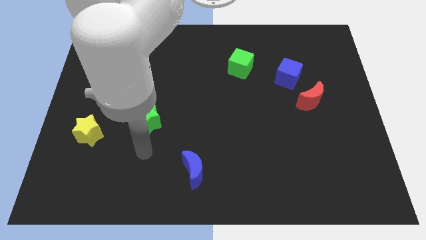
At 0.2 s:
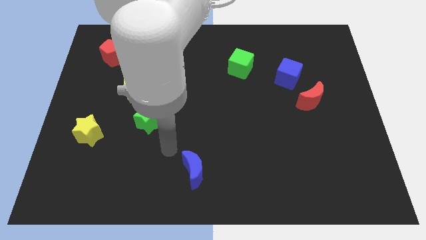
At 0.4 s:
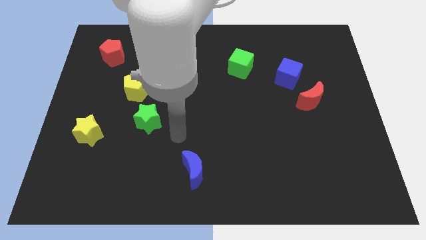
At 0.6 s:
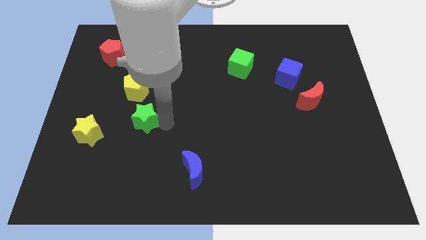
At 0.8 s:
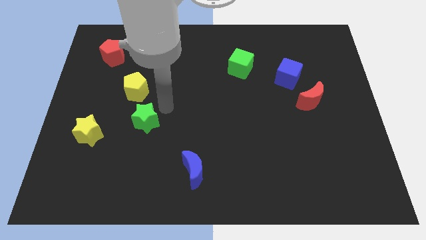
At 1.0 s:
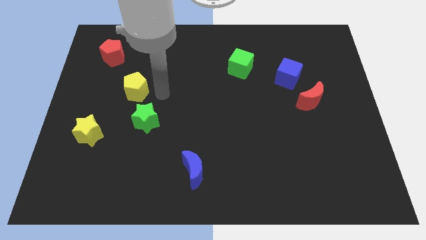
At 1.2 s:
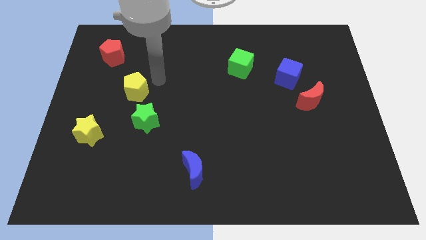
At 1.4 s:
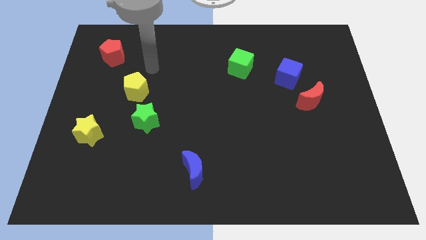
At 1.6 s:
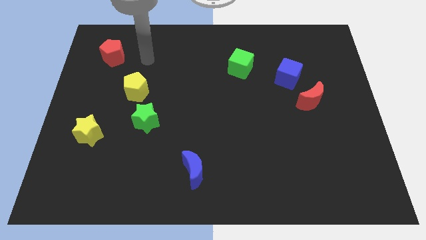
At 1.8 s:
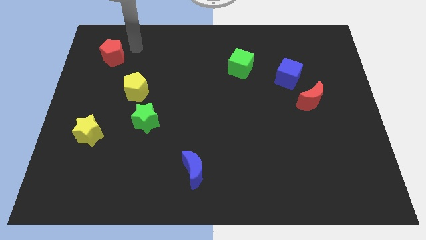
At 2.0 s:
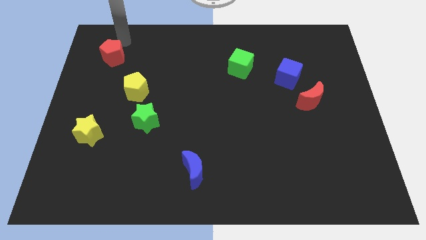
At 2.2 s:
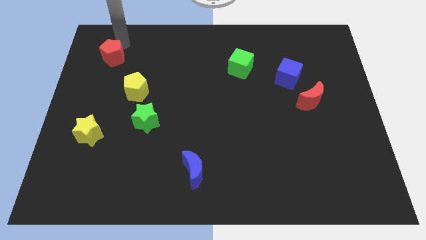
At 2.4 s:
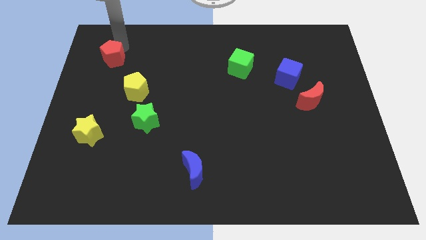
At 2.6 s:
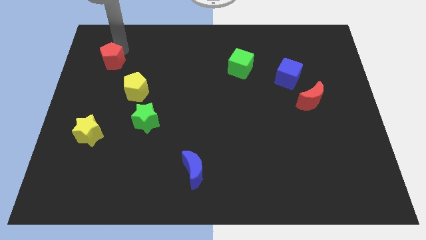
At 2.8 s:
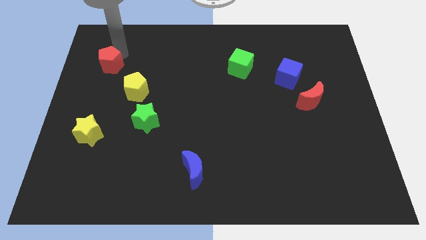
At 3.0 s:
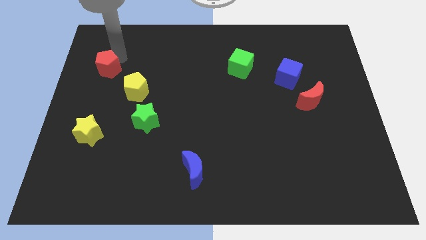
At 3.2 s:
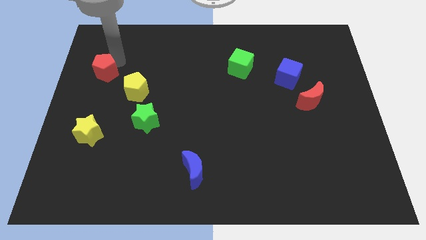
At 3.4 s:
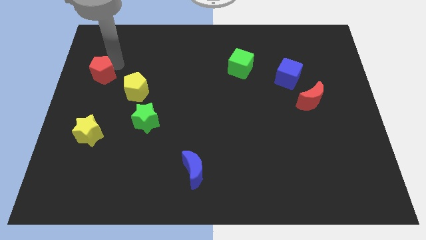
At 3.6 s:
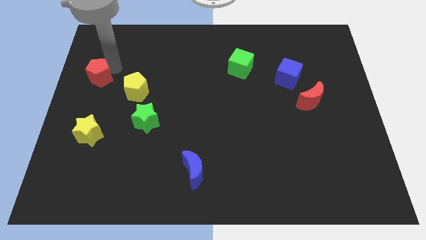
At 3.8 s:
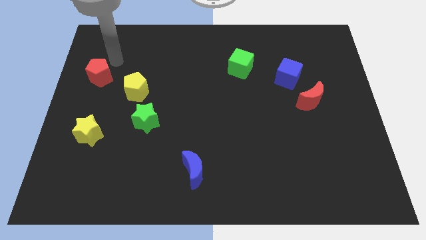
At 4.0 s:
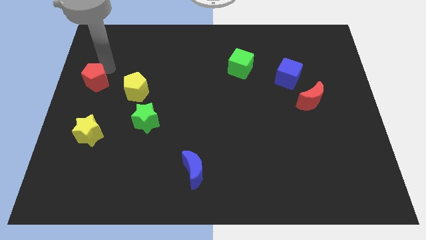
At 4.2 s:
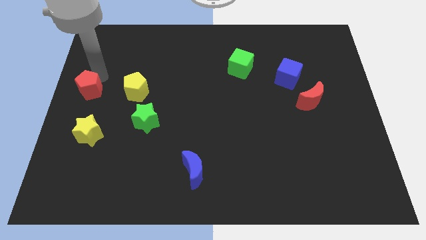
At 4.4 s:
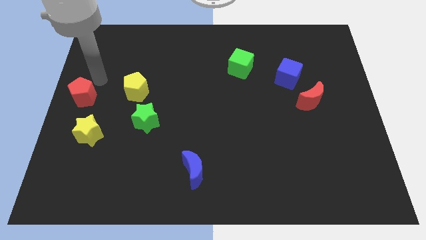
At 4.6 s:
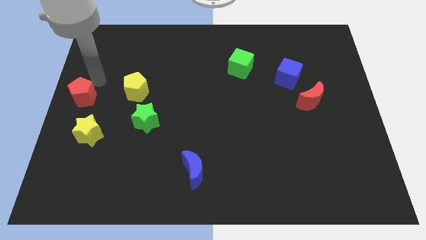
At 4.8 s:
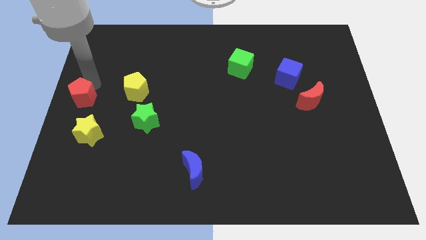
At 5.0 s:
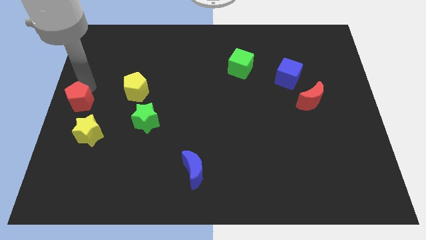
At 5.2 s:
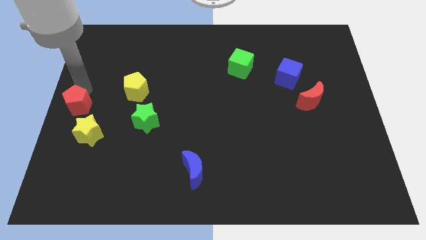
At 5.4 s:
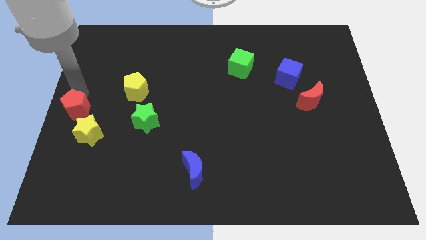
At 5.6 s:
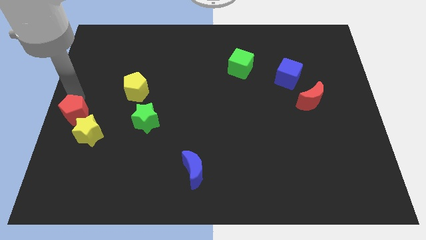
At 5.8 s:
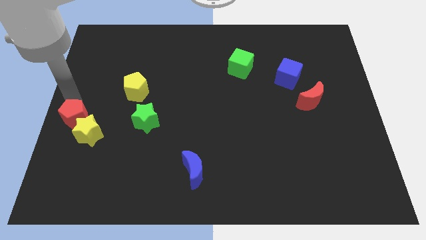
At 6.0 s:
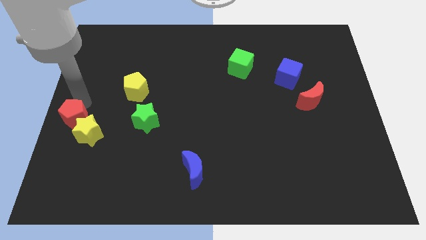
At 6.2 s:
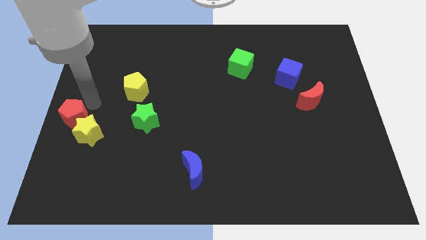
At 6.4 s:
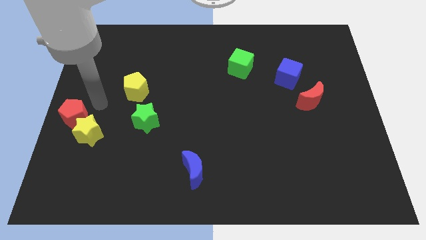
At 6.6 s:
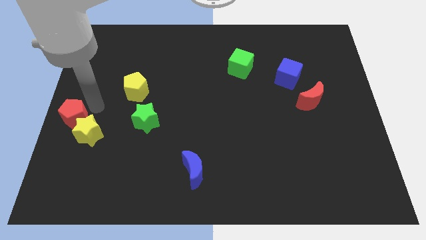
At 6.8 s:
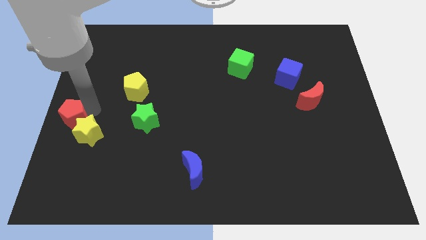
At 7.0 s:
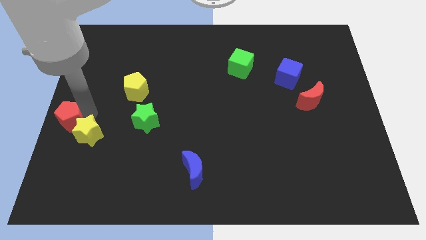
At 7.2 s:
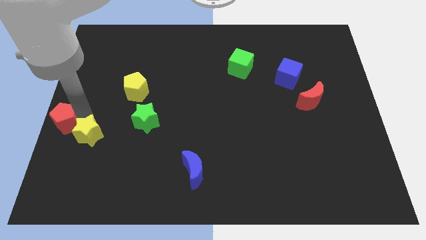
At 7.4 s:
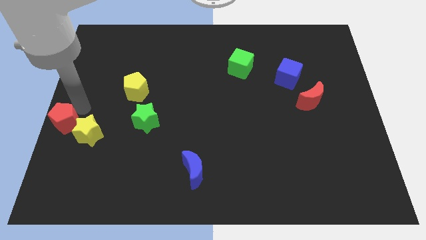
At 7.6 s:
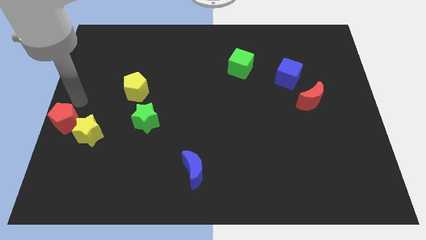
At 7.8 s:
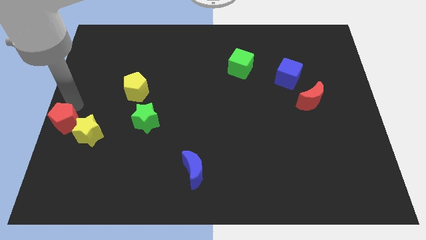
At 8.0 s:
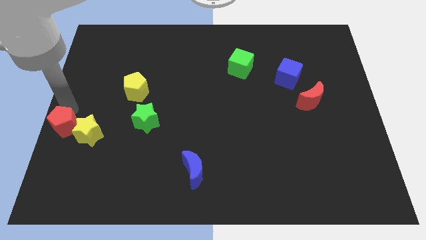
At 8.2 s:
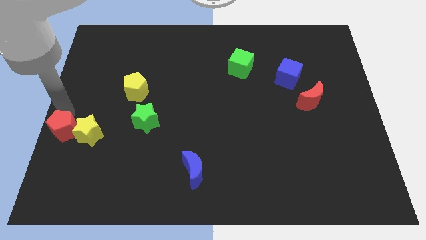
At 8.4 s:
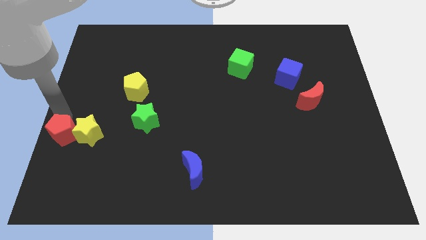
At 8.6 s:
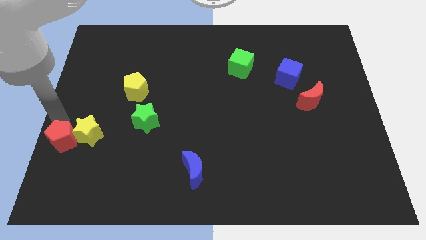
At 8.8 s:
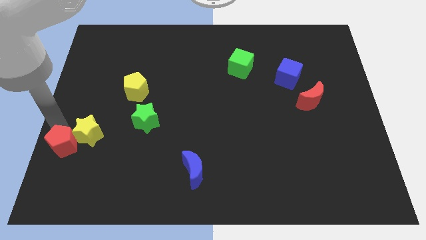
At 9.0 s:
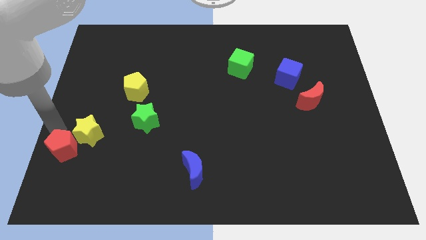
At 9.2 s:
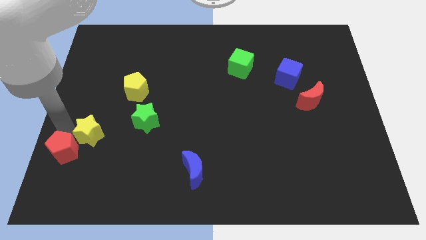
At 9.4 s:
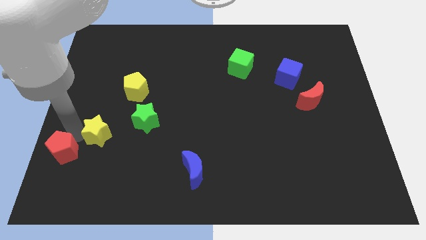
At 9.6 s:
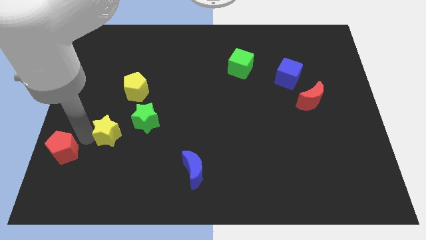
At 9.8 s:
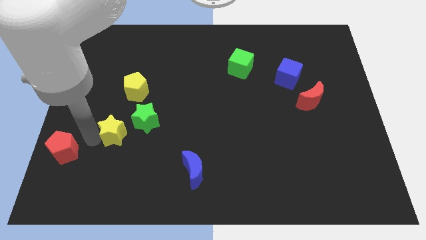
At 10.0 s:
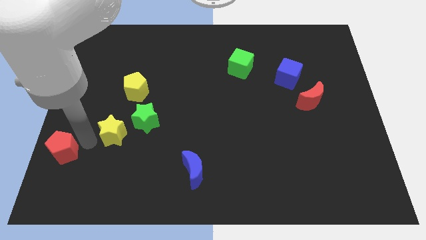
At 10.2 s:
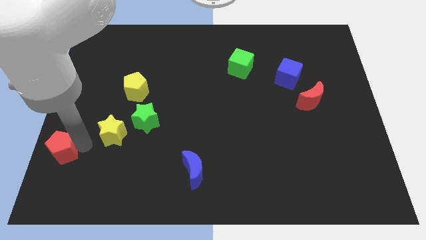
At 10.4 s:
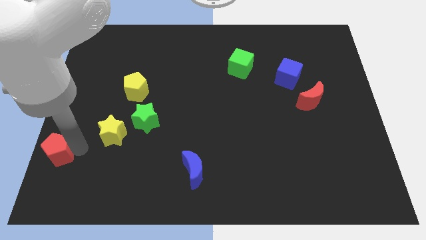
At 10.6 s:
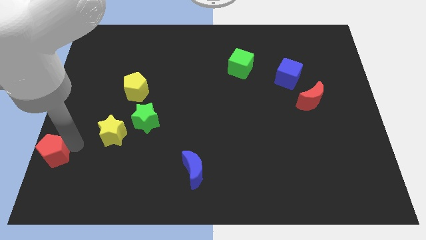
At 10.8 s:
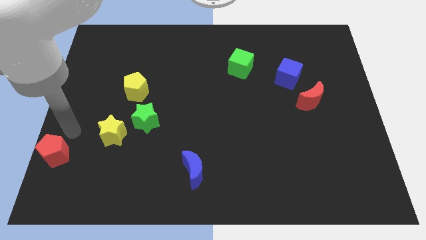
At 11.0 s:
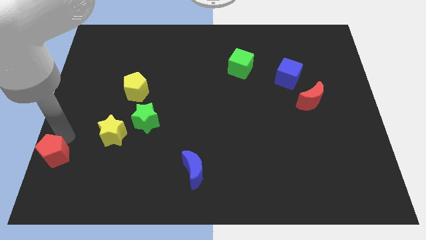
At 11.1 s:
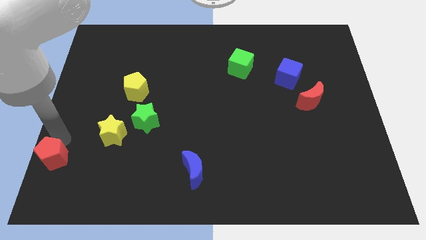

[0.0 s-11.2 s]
slide the red pentagon to the bottom left

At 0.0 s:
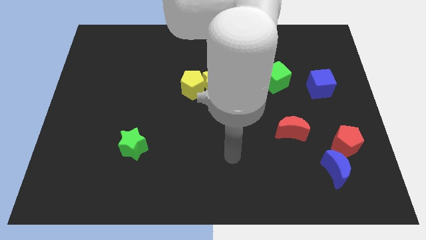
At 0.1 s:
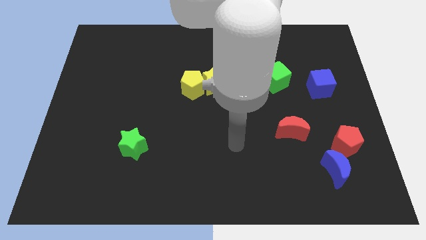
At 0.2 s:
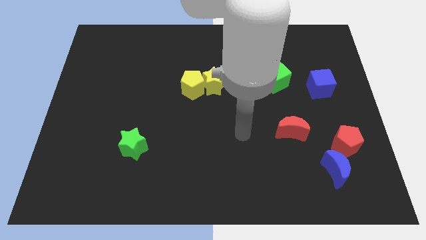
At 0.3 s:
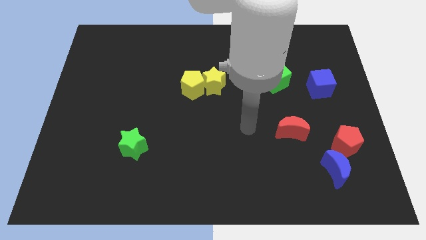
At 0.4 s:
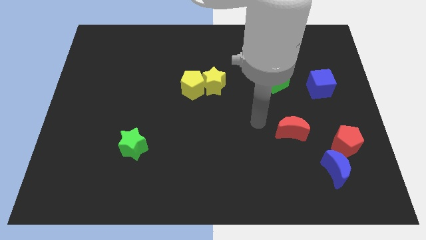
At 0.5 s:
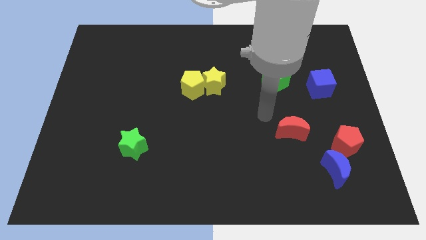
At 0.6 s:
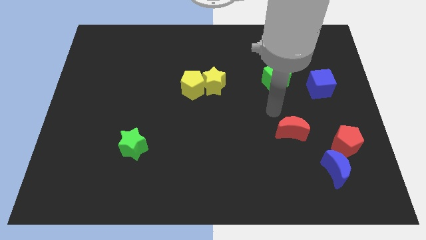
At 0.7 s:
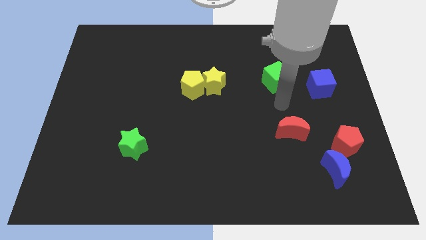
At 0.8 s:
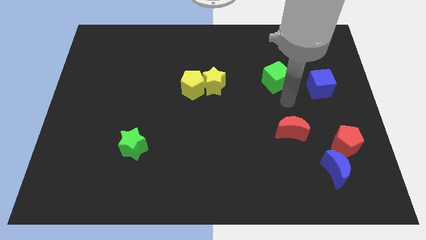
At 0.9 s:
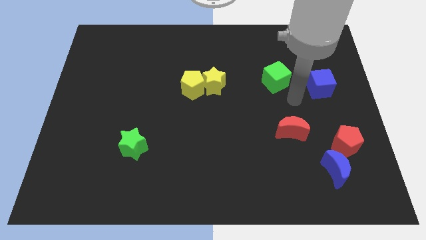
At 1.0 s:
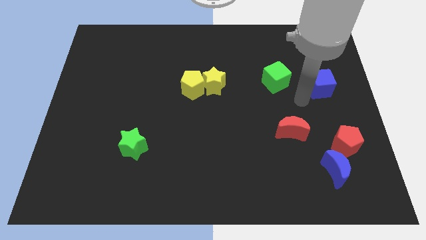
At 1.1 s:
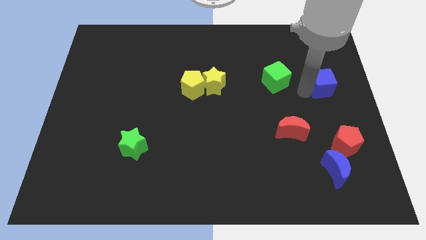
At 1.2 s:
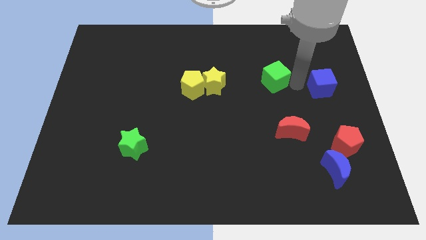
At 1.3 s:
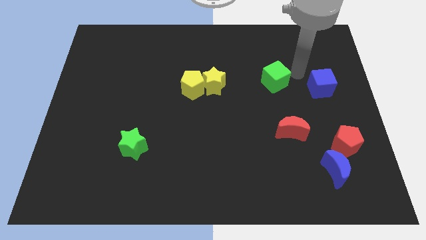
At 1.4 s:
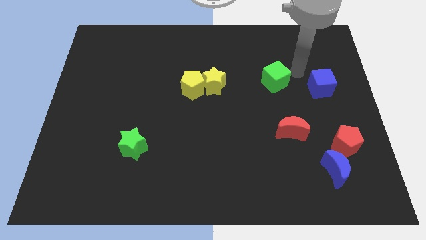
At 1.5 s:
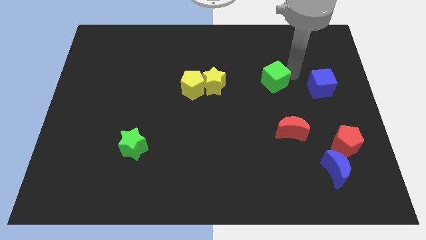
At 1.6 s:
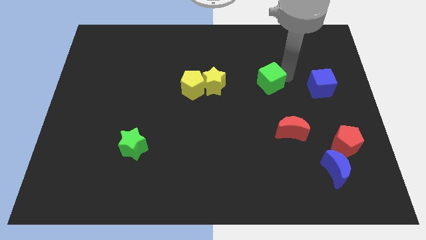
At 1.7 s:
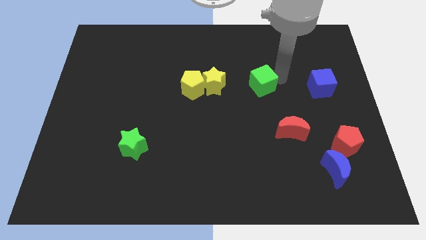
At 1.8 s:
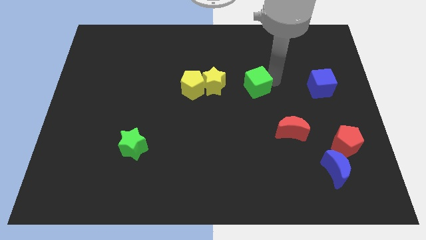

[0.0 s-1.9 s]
put the green cube to the middle of the board
